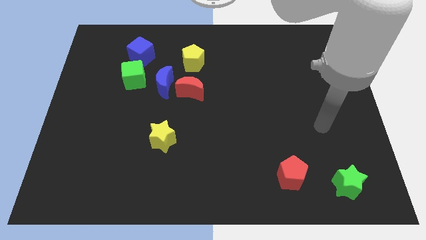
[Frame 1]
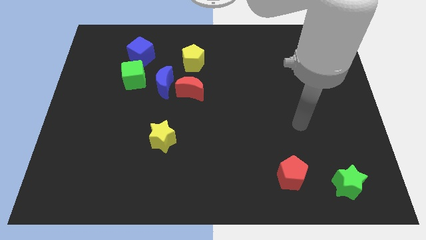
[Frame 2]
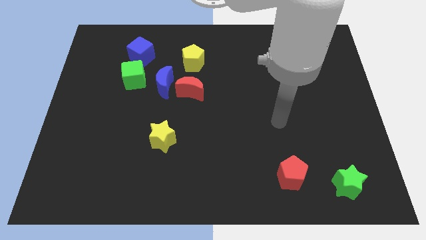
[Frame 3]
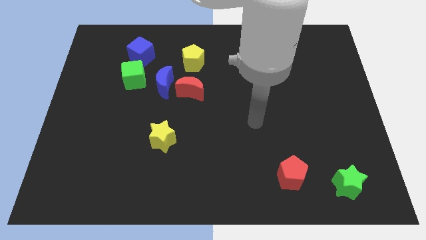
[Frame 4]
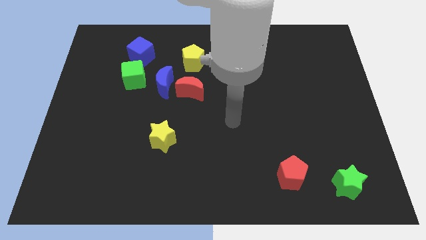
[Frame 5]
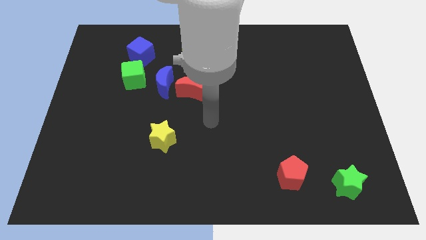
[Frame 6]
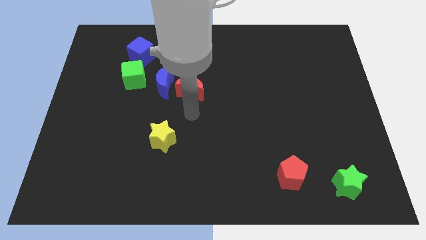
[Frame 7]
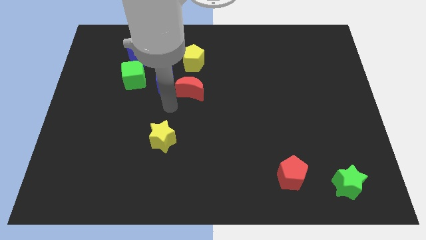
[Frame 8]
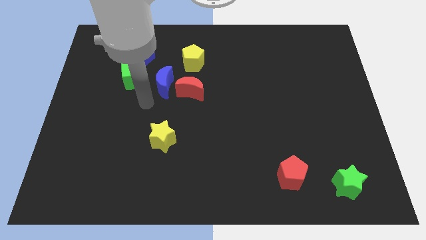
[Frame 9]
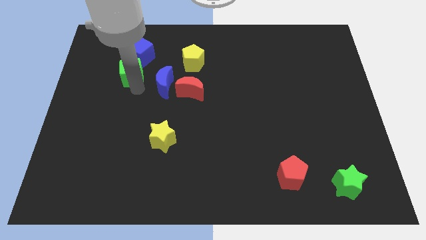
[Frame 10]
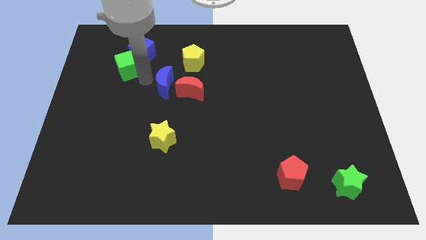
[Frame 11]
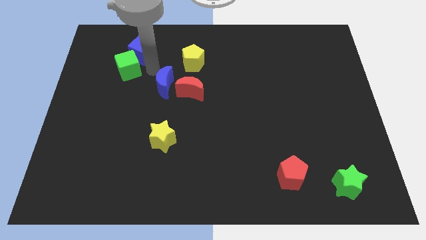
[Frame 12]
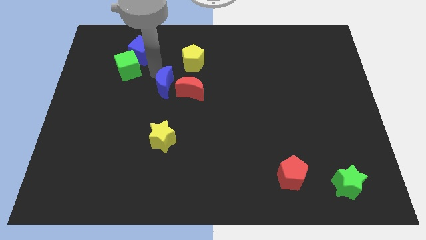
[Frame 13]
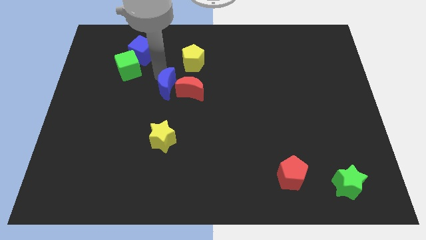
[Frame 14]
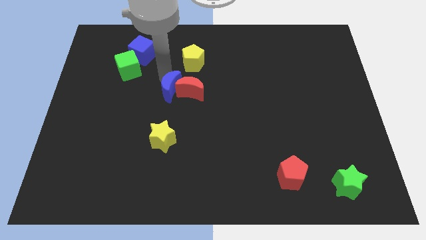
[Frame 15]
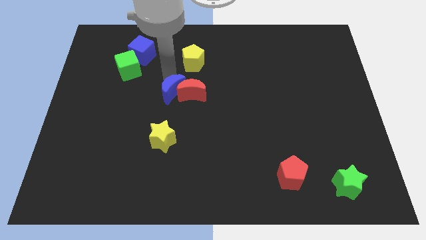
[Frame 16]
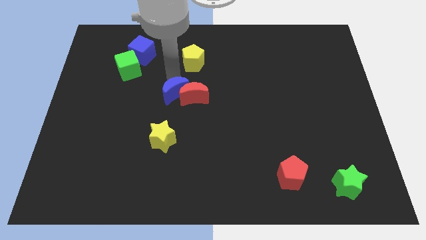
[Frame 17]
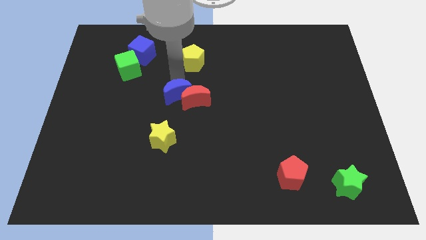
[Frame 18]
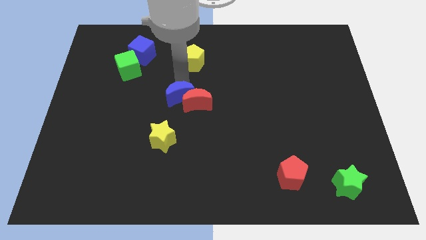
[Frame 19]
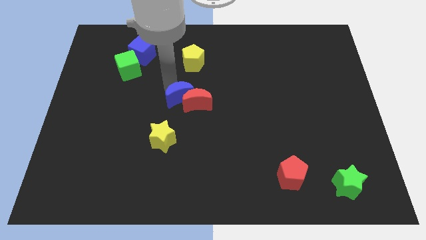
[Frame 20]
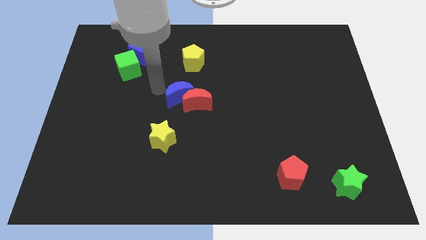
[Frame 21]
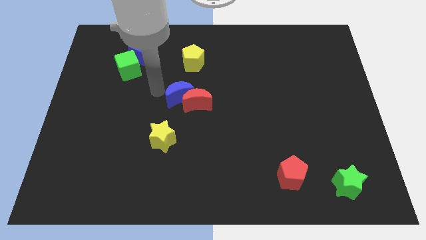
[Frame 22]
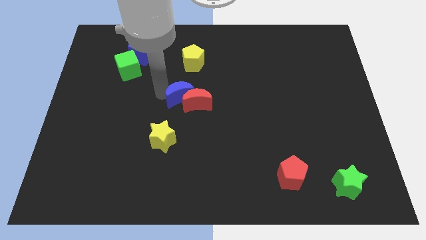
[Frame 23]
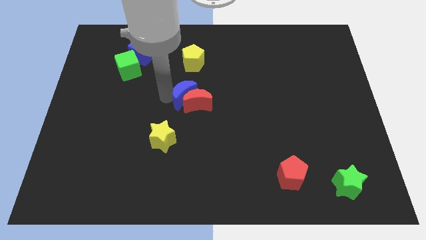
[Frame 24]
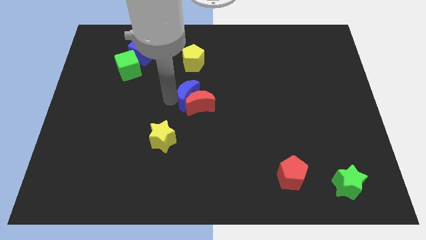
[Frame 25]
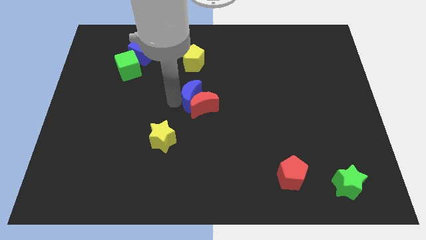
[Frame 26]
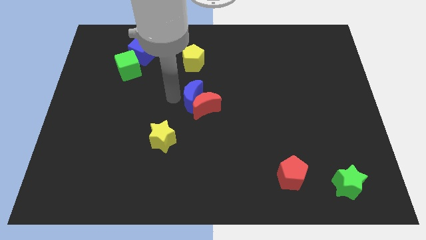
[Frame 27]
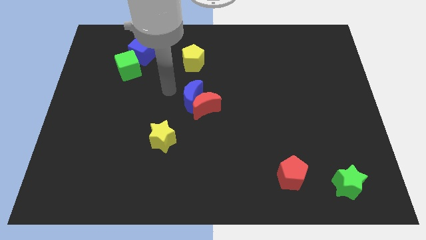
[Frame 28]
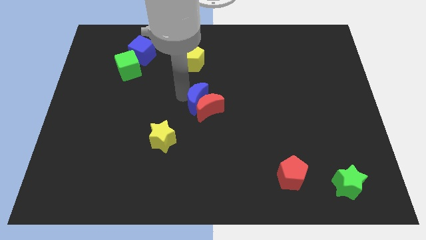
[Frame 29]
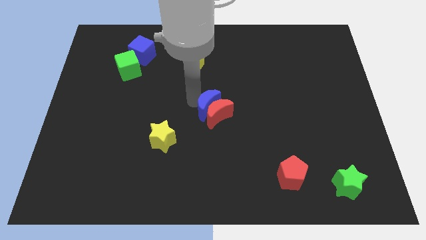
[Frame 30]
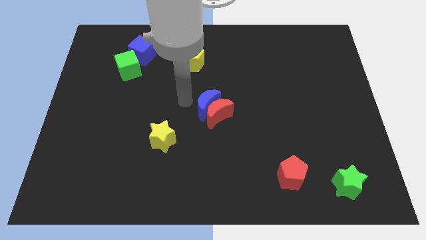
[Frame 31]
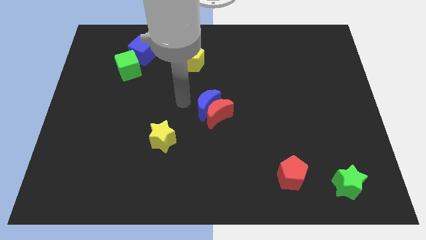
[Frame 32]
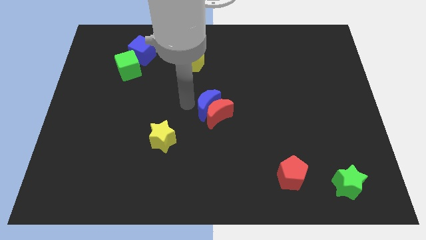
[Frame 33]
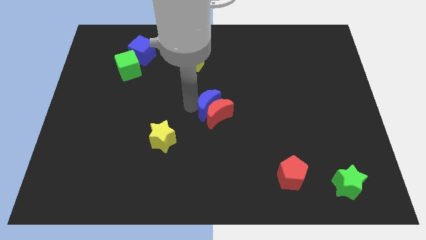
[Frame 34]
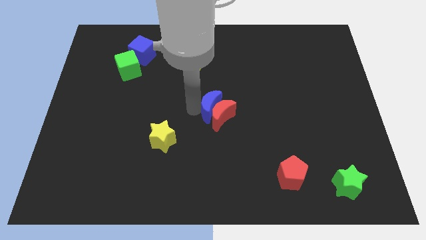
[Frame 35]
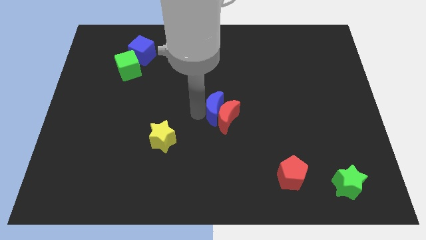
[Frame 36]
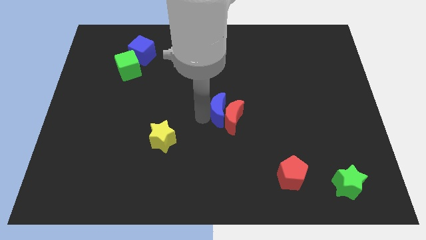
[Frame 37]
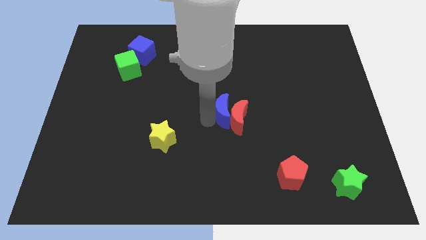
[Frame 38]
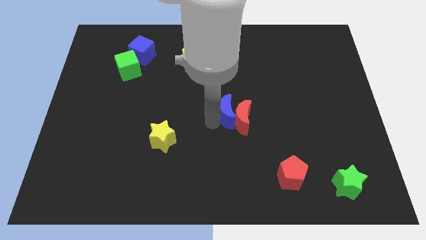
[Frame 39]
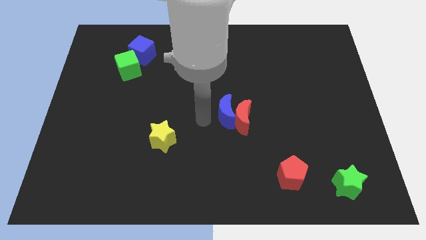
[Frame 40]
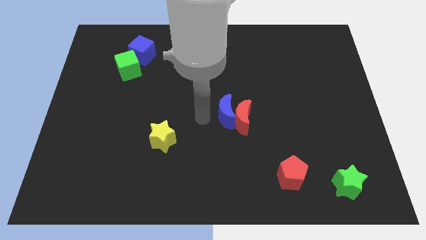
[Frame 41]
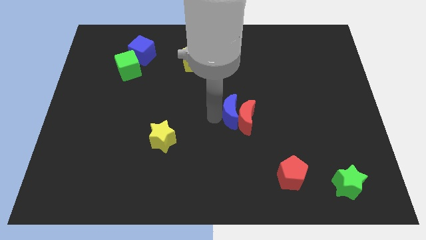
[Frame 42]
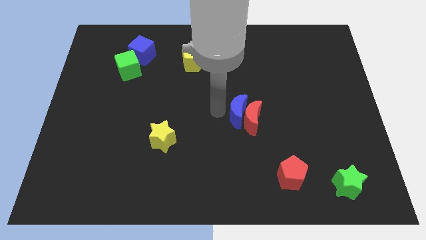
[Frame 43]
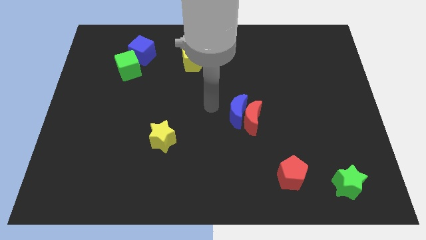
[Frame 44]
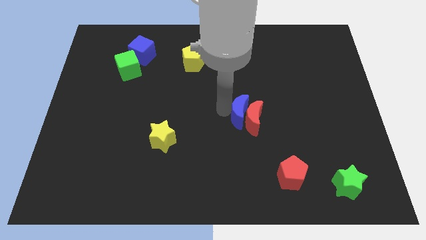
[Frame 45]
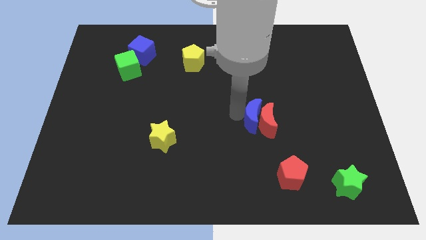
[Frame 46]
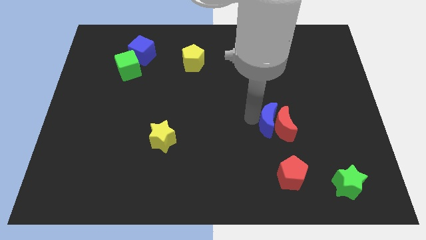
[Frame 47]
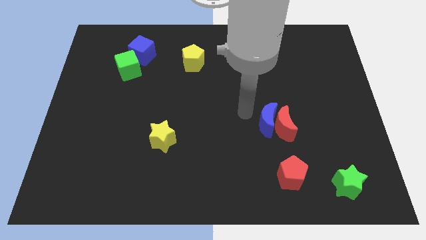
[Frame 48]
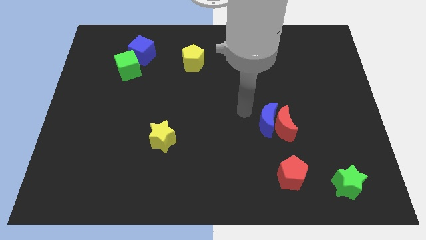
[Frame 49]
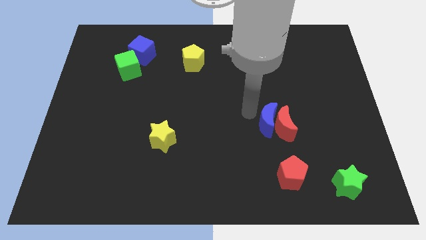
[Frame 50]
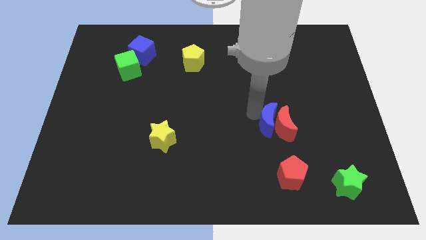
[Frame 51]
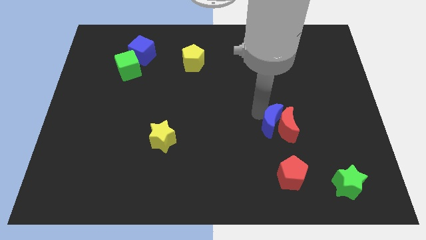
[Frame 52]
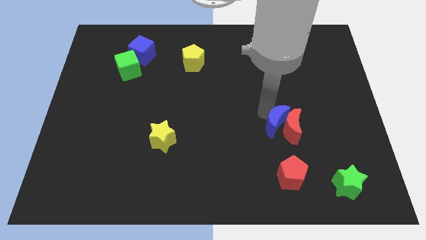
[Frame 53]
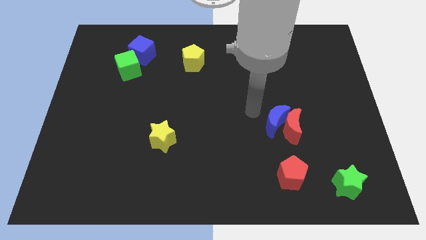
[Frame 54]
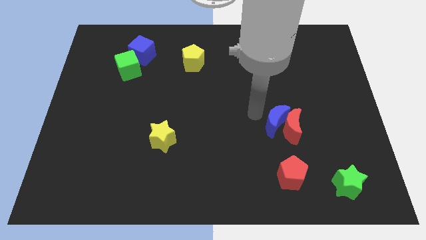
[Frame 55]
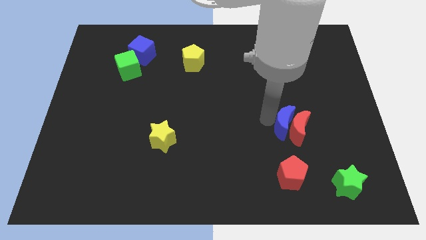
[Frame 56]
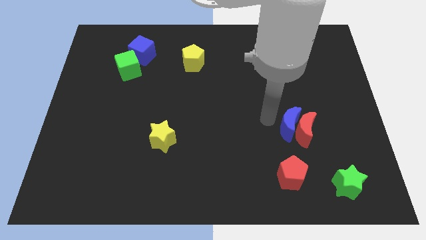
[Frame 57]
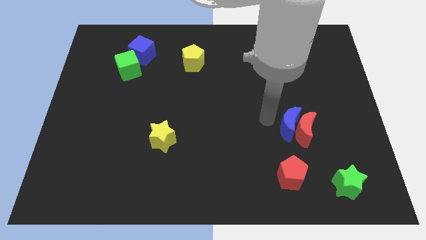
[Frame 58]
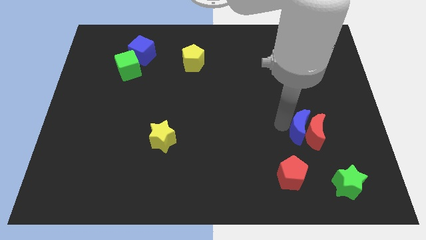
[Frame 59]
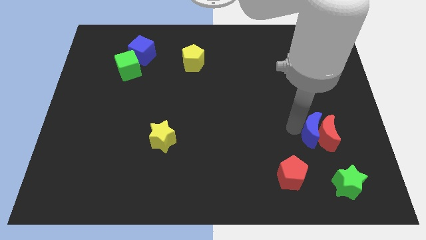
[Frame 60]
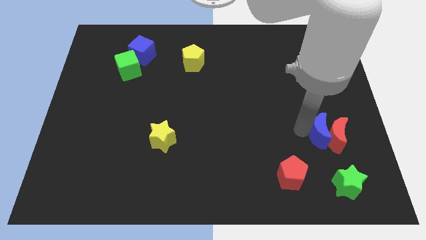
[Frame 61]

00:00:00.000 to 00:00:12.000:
put the blue moon to the top of the green star
